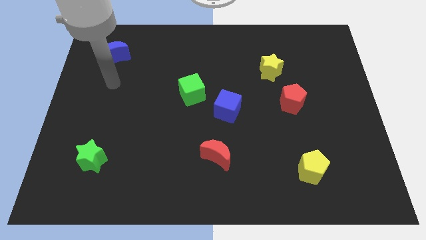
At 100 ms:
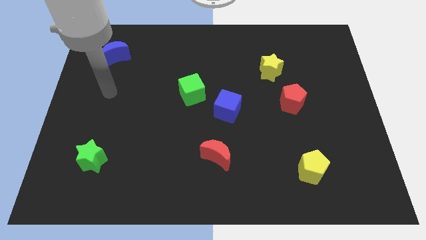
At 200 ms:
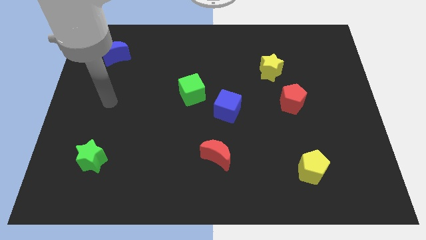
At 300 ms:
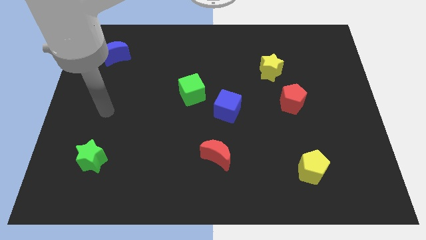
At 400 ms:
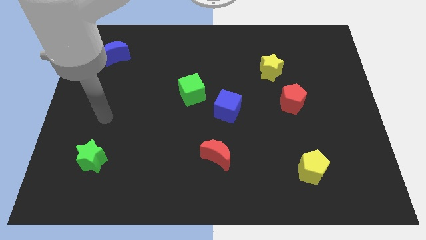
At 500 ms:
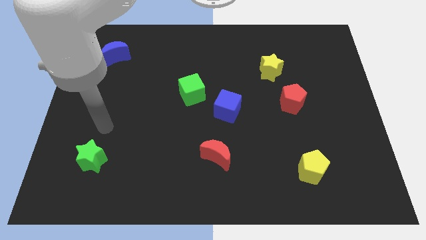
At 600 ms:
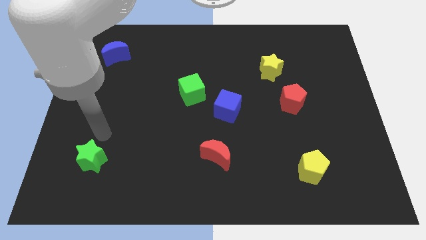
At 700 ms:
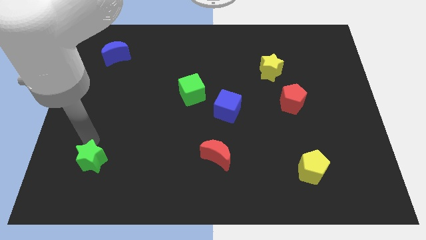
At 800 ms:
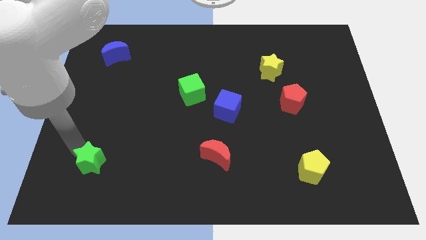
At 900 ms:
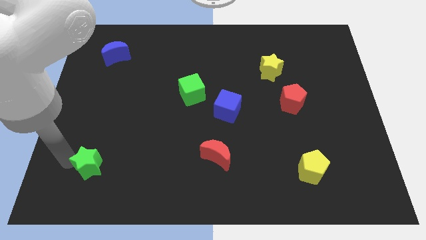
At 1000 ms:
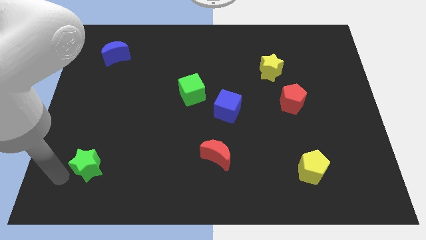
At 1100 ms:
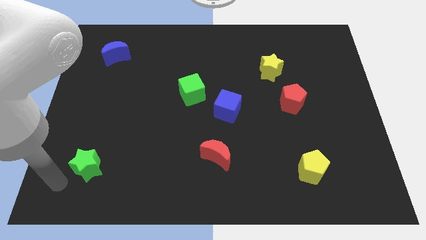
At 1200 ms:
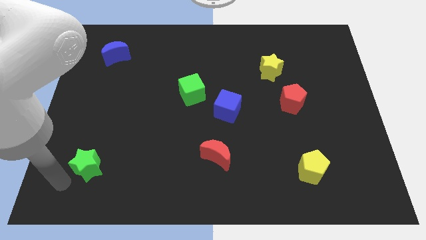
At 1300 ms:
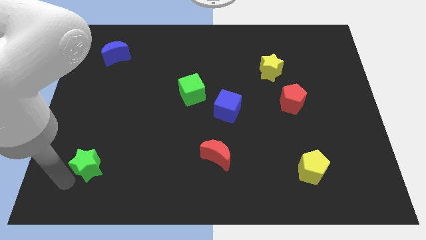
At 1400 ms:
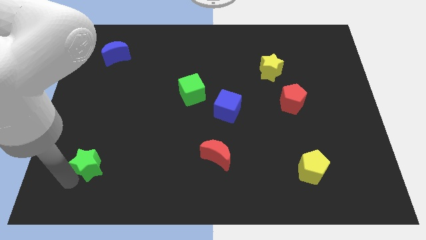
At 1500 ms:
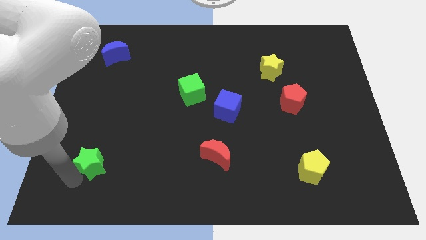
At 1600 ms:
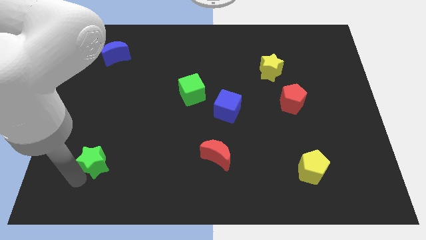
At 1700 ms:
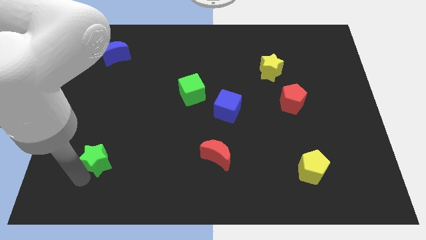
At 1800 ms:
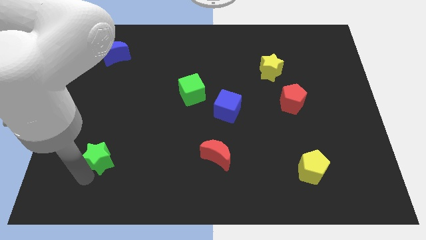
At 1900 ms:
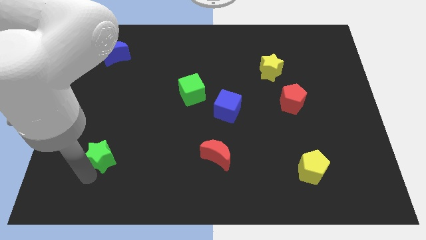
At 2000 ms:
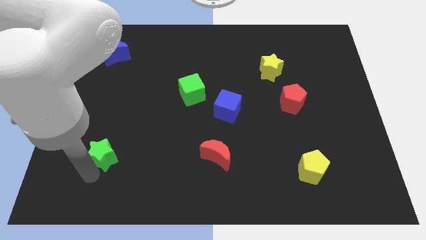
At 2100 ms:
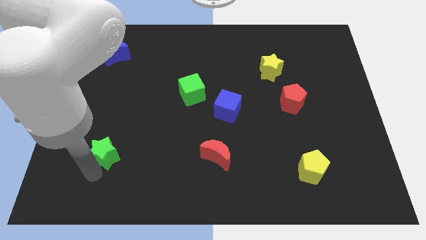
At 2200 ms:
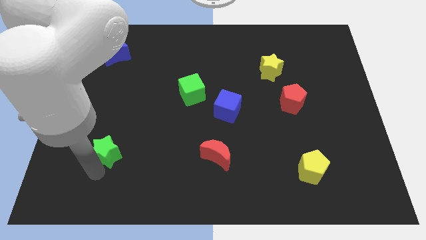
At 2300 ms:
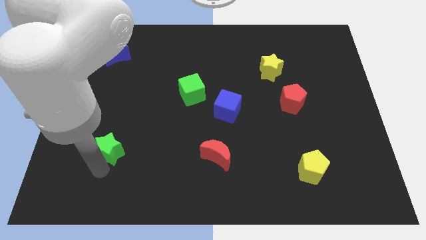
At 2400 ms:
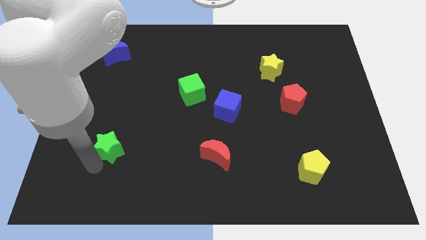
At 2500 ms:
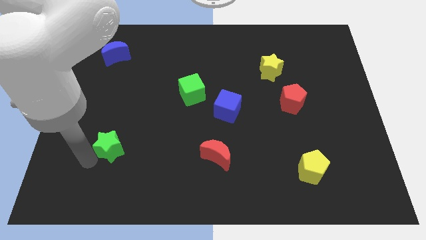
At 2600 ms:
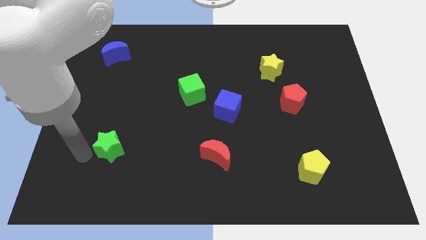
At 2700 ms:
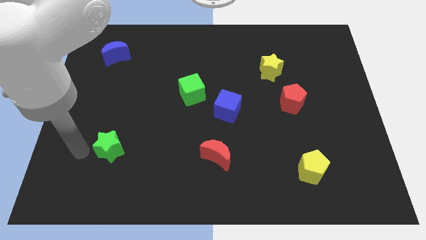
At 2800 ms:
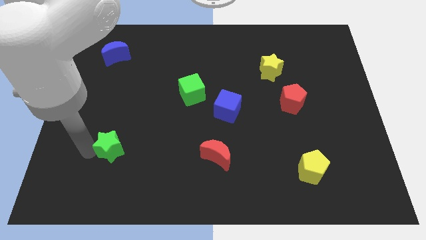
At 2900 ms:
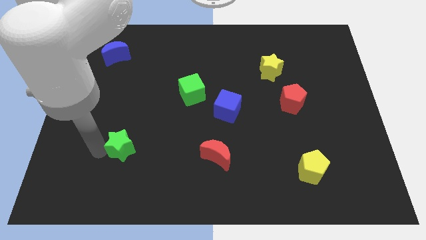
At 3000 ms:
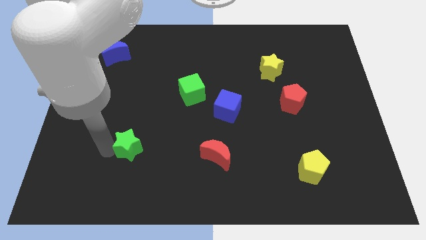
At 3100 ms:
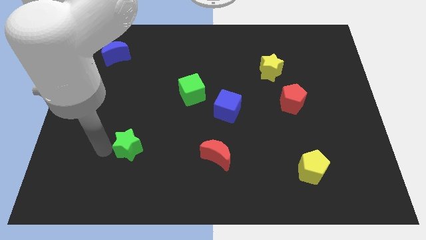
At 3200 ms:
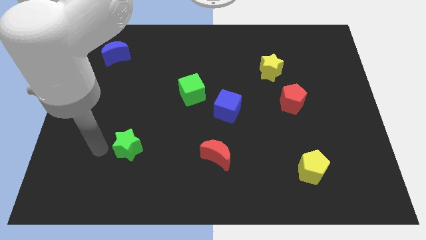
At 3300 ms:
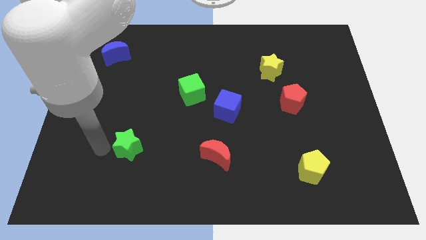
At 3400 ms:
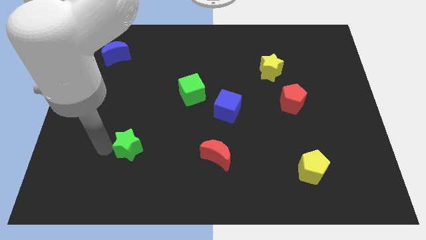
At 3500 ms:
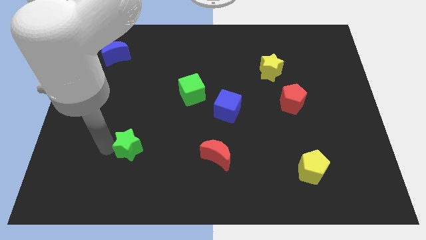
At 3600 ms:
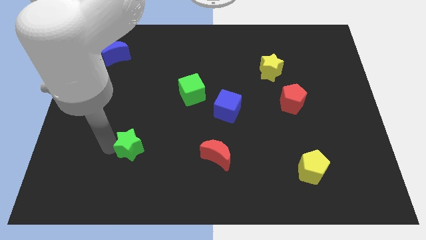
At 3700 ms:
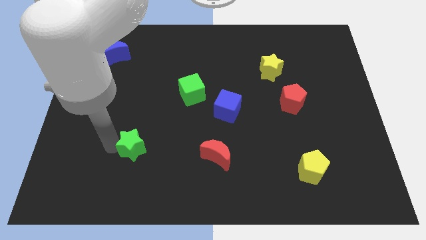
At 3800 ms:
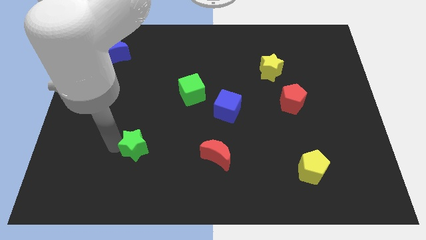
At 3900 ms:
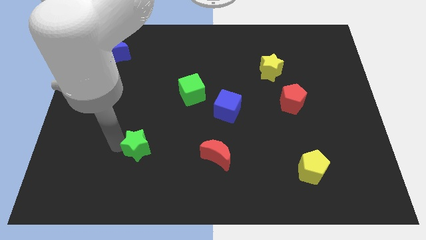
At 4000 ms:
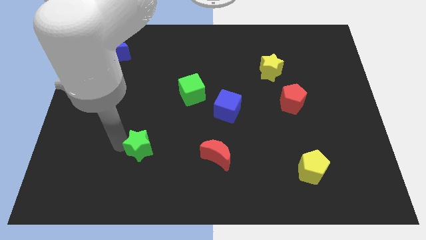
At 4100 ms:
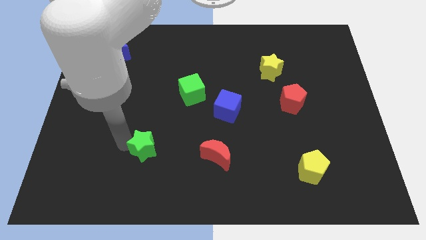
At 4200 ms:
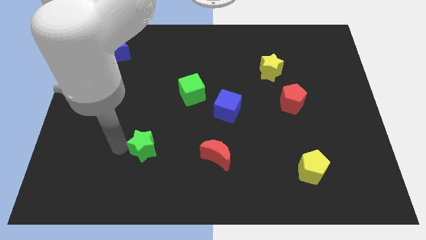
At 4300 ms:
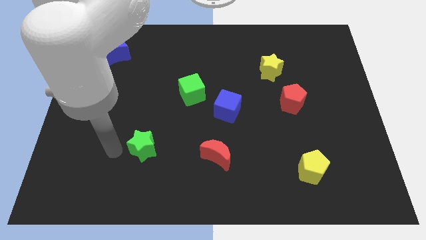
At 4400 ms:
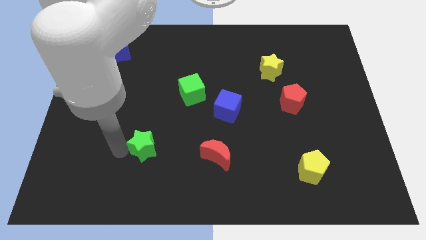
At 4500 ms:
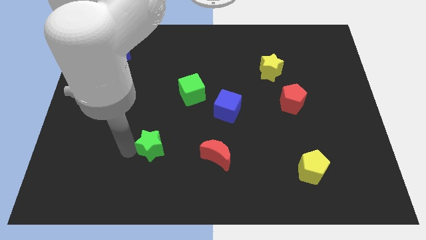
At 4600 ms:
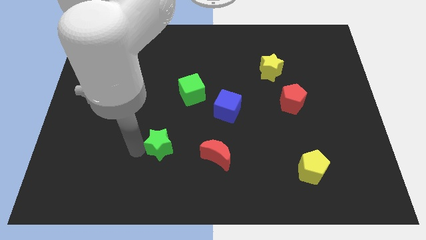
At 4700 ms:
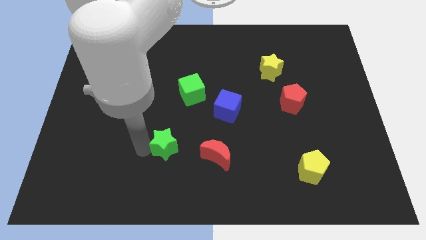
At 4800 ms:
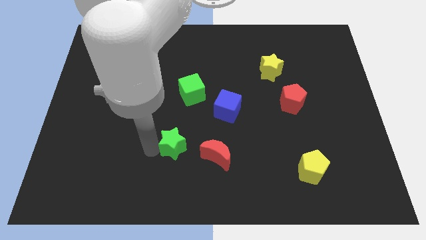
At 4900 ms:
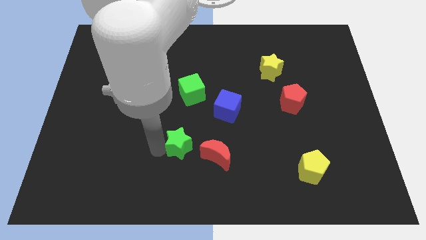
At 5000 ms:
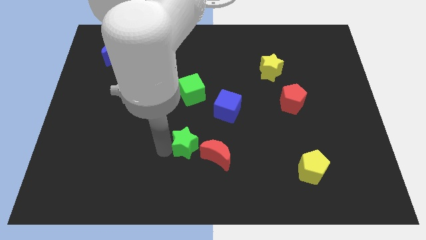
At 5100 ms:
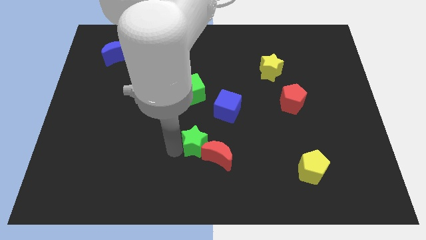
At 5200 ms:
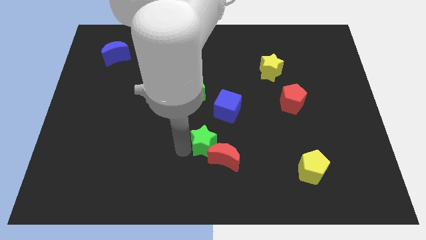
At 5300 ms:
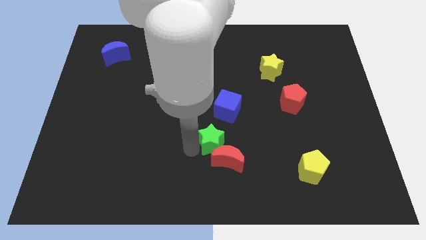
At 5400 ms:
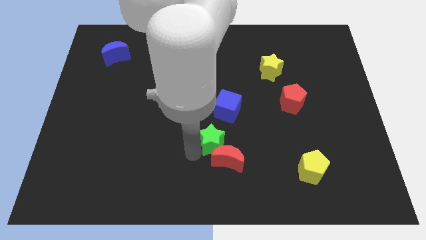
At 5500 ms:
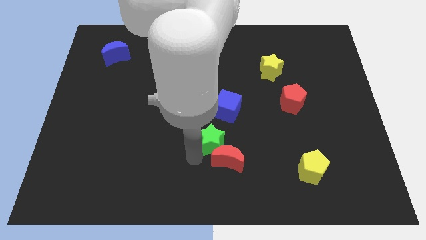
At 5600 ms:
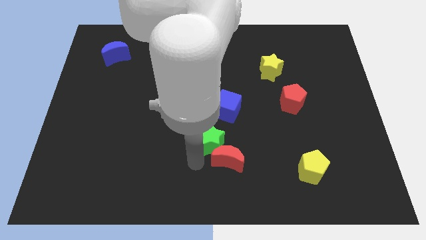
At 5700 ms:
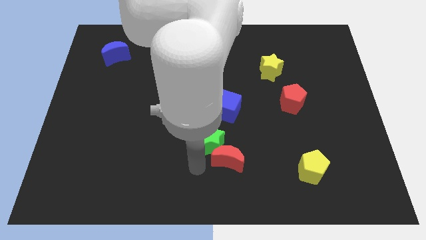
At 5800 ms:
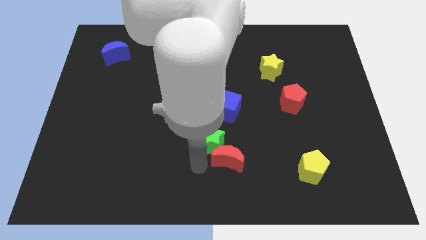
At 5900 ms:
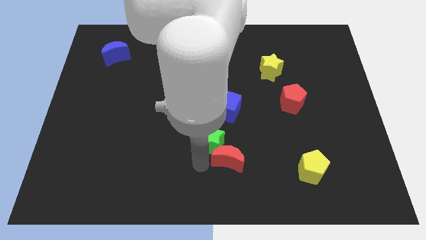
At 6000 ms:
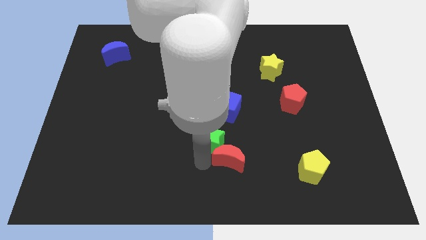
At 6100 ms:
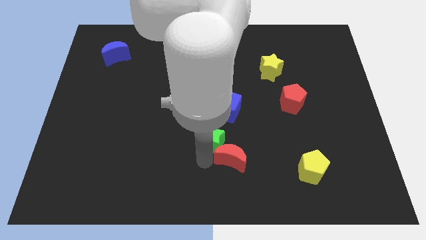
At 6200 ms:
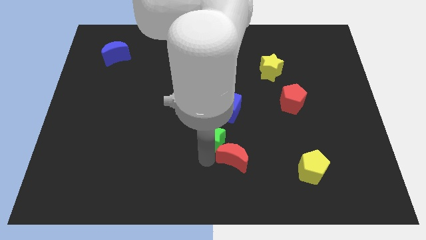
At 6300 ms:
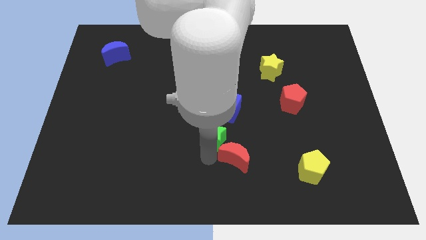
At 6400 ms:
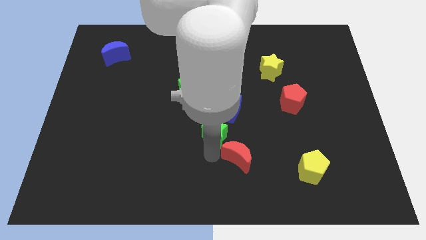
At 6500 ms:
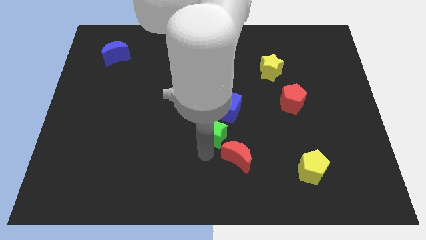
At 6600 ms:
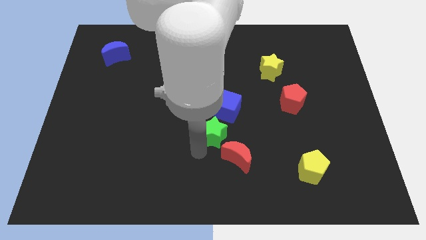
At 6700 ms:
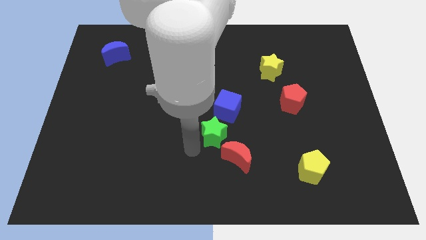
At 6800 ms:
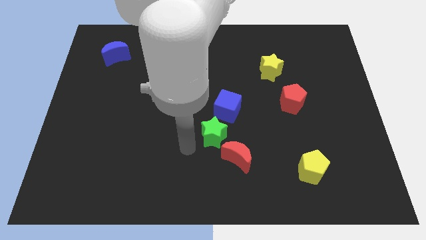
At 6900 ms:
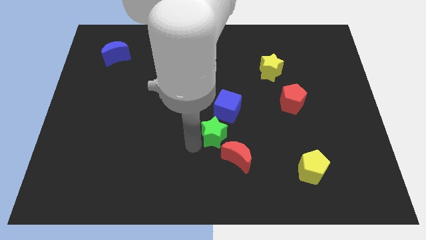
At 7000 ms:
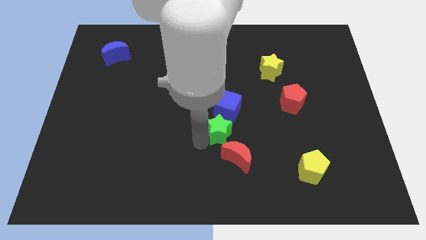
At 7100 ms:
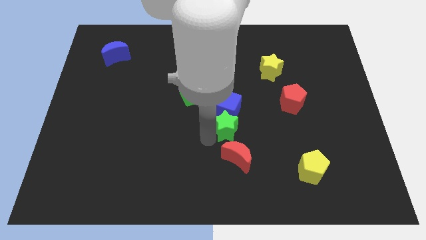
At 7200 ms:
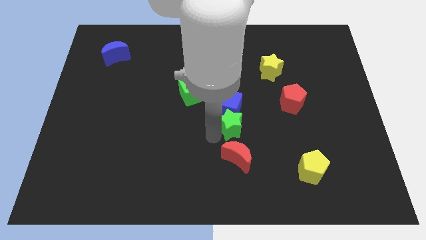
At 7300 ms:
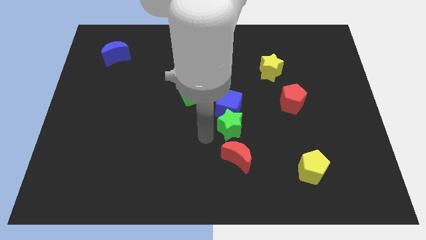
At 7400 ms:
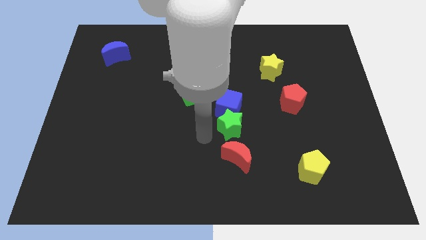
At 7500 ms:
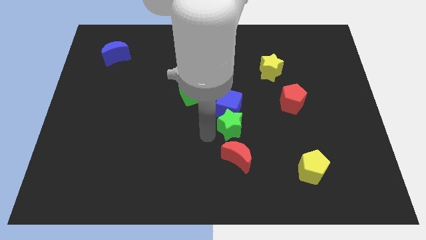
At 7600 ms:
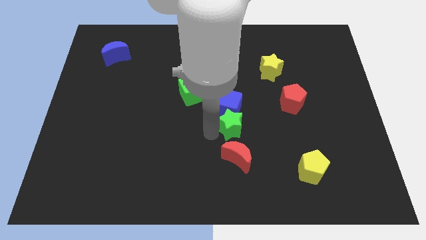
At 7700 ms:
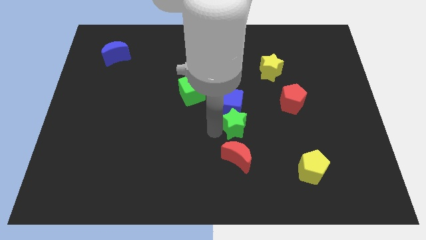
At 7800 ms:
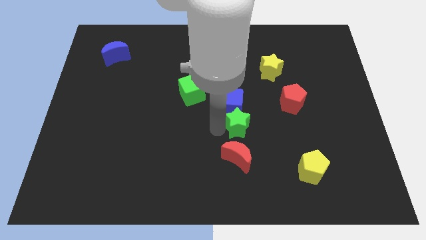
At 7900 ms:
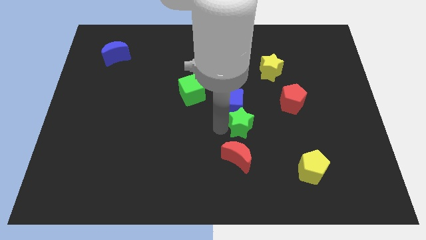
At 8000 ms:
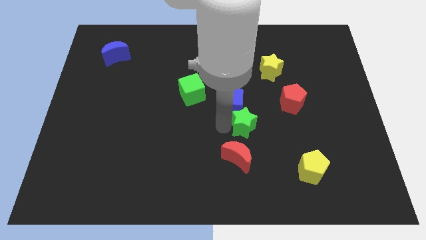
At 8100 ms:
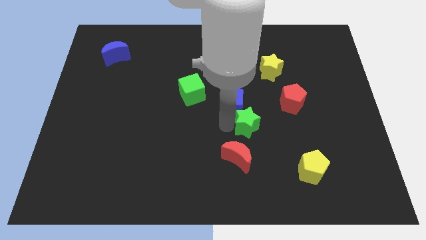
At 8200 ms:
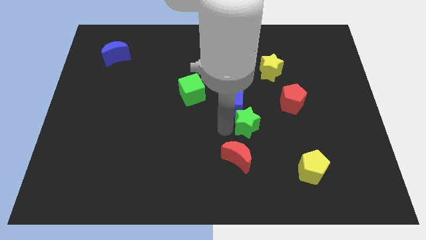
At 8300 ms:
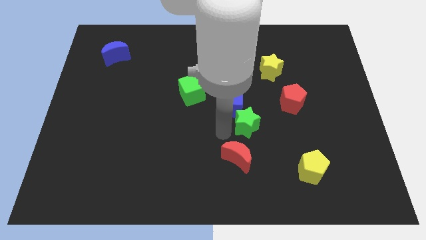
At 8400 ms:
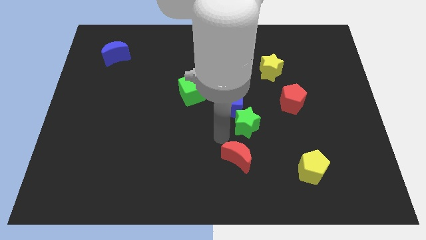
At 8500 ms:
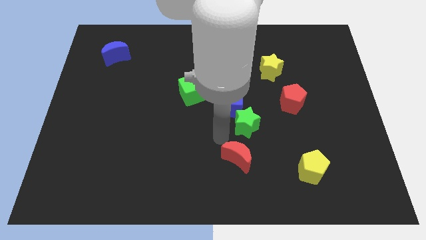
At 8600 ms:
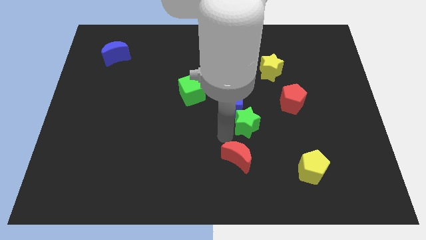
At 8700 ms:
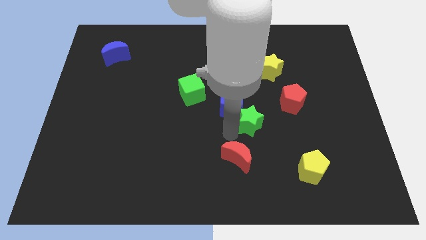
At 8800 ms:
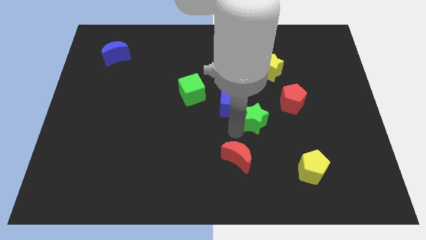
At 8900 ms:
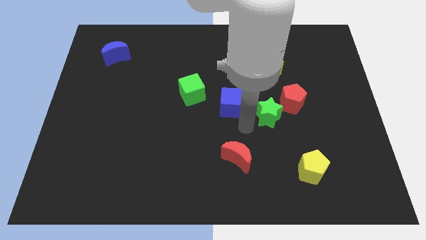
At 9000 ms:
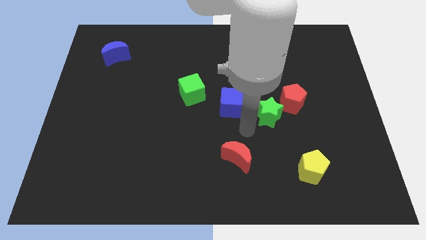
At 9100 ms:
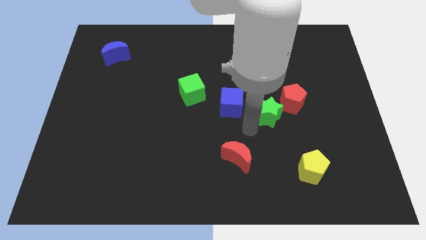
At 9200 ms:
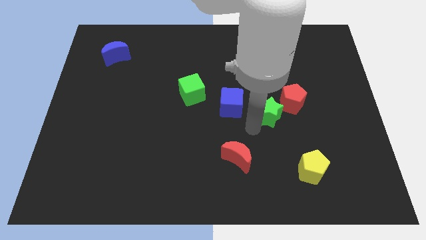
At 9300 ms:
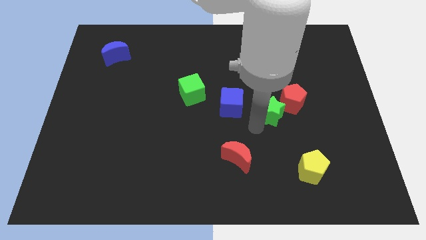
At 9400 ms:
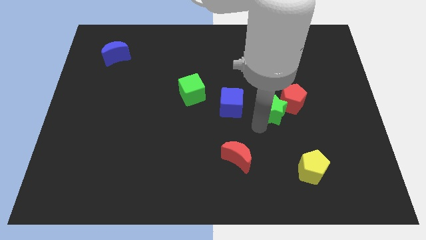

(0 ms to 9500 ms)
move the green star close to the red pentagon
